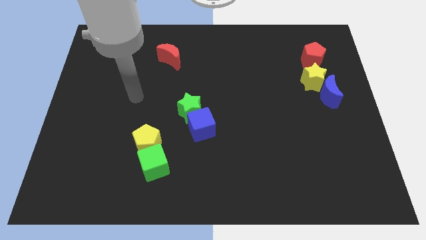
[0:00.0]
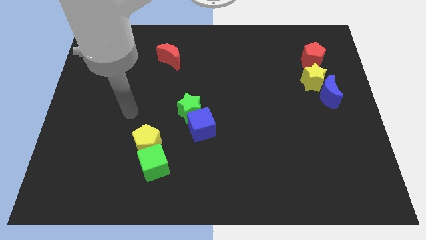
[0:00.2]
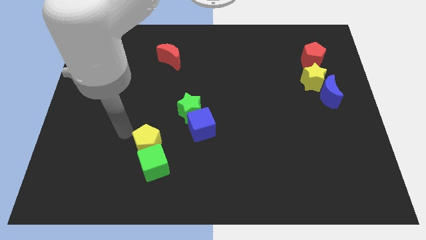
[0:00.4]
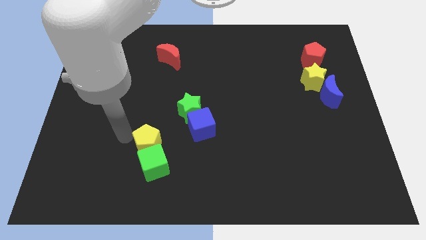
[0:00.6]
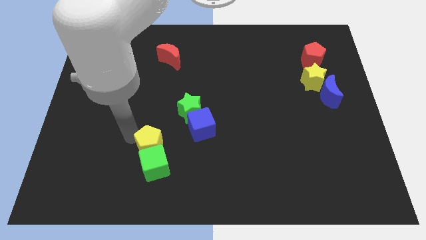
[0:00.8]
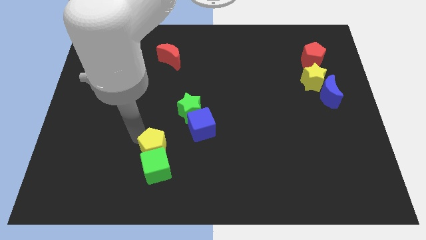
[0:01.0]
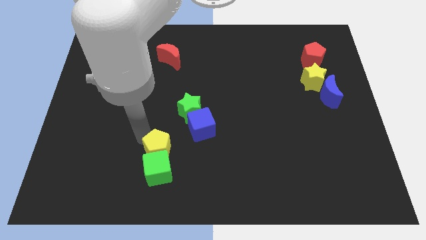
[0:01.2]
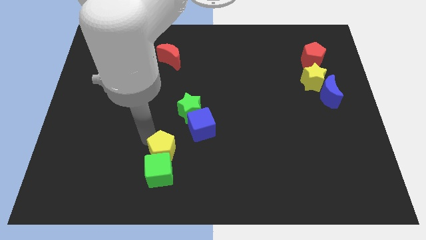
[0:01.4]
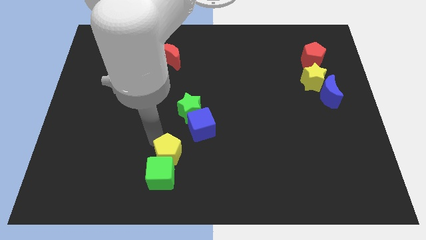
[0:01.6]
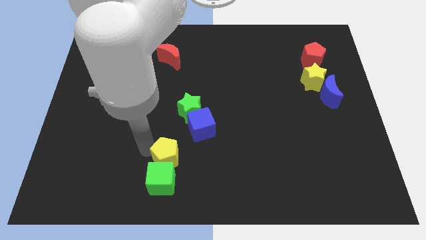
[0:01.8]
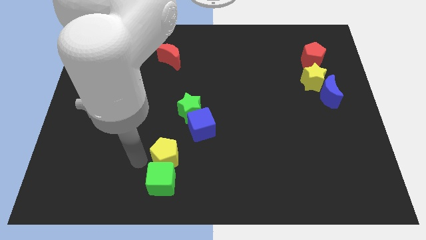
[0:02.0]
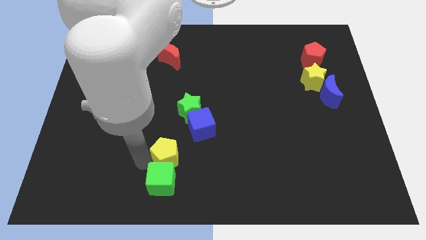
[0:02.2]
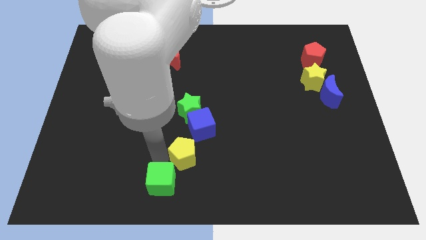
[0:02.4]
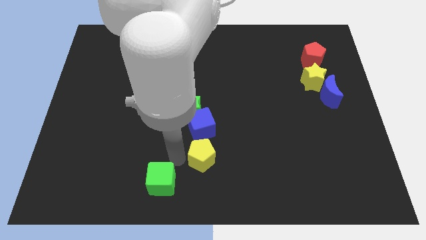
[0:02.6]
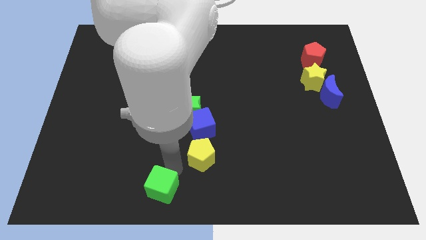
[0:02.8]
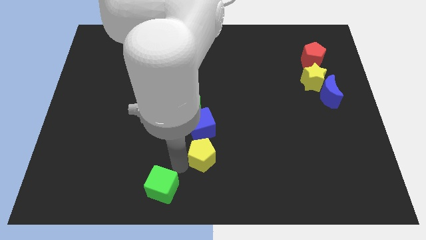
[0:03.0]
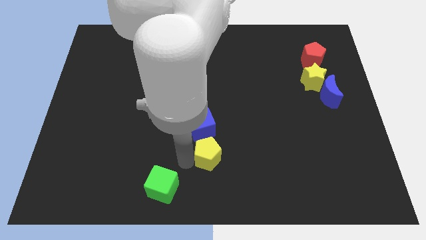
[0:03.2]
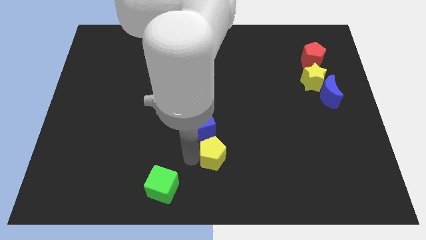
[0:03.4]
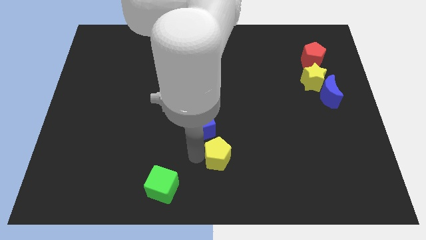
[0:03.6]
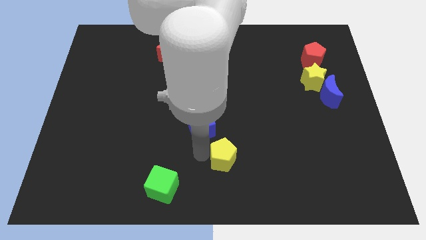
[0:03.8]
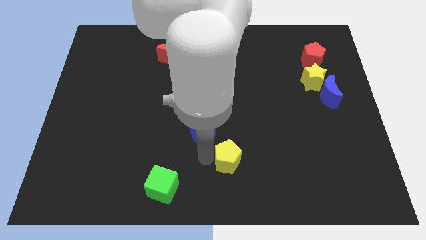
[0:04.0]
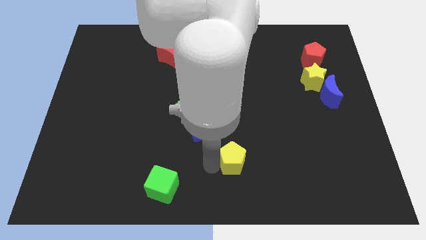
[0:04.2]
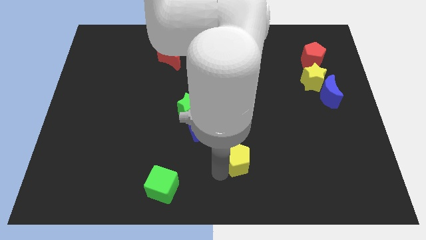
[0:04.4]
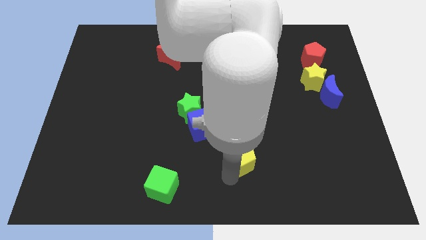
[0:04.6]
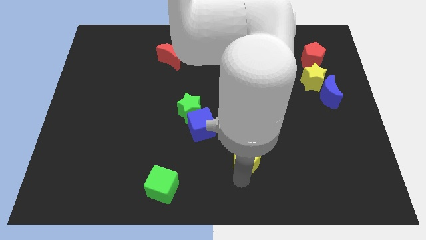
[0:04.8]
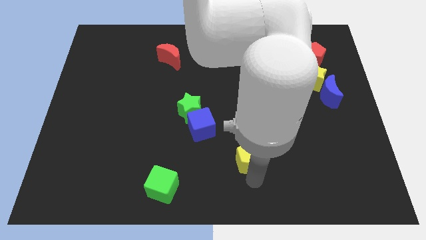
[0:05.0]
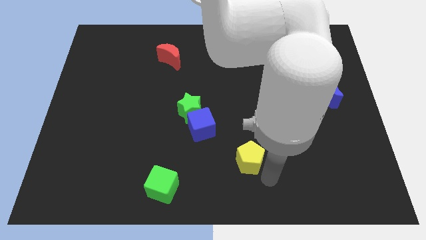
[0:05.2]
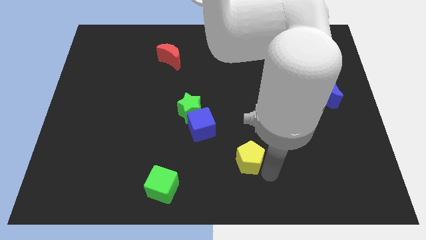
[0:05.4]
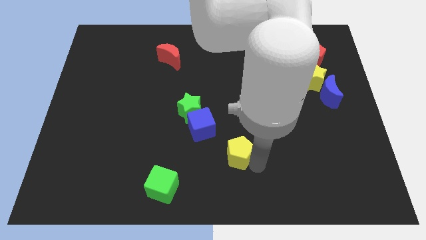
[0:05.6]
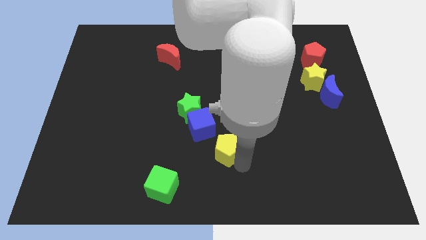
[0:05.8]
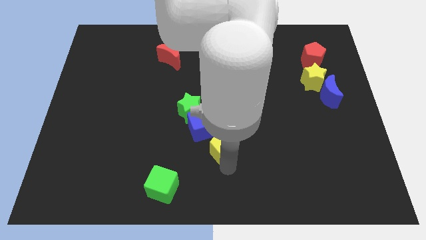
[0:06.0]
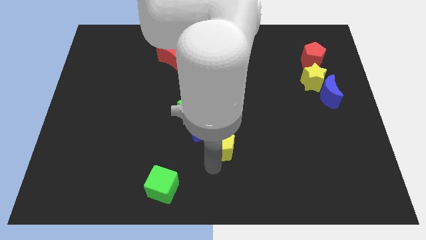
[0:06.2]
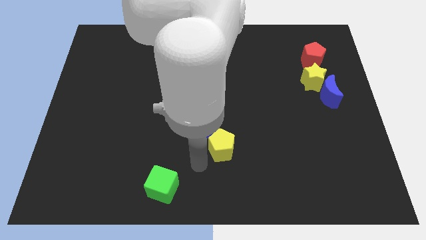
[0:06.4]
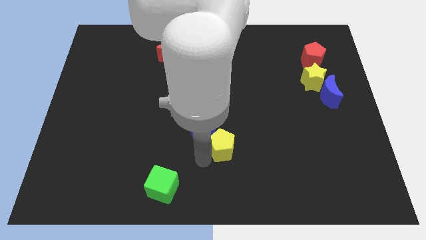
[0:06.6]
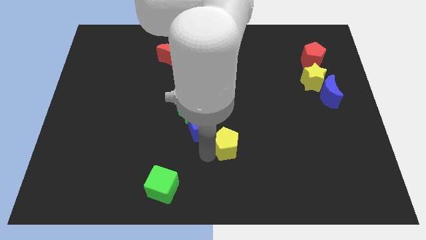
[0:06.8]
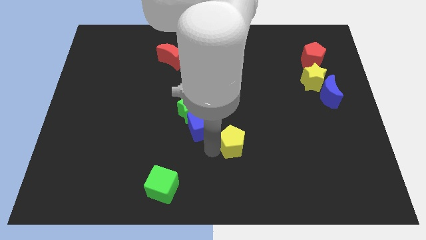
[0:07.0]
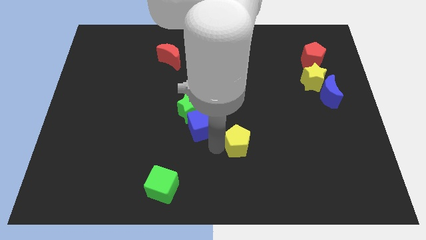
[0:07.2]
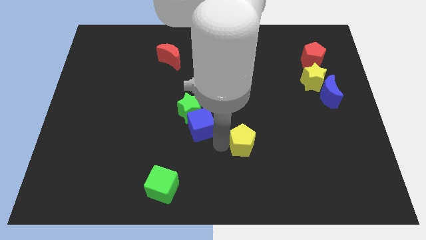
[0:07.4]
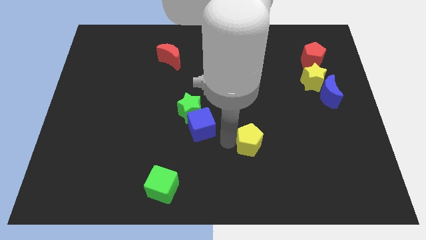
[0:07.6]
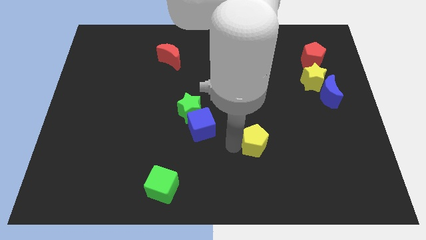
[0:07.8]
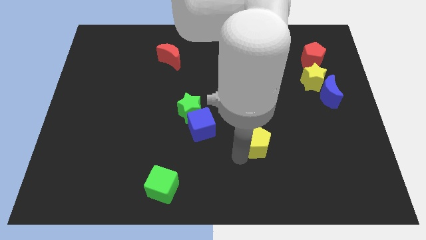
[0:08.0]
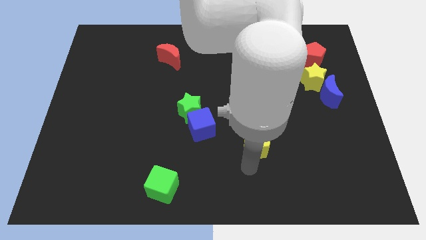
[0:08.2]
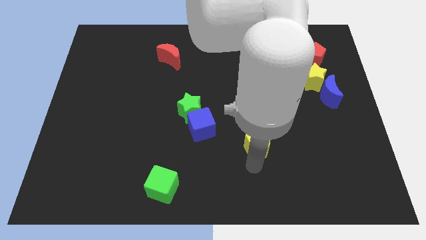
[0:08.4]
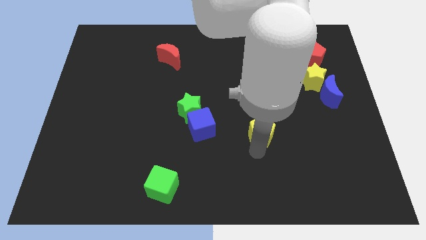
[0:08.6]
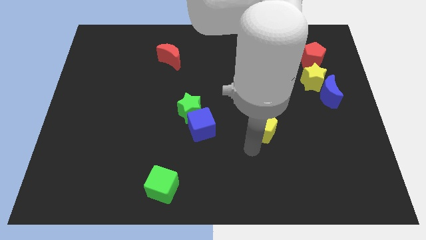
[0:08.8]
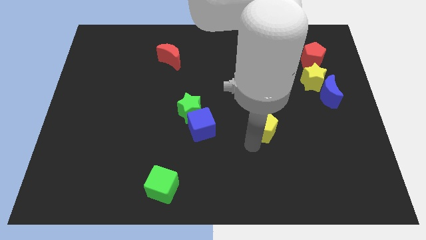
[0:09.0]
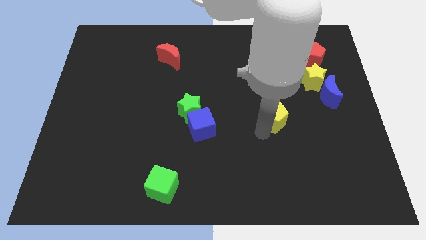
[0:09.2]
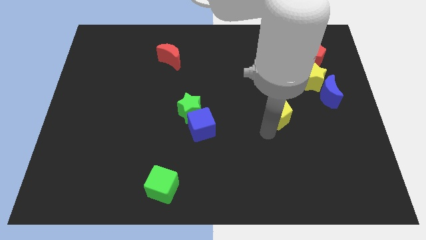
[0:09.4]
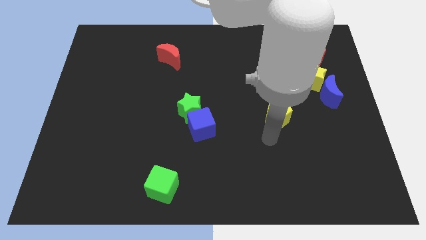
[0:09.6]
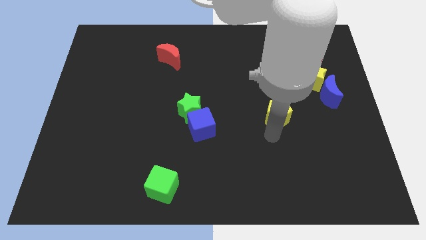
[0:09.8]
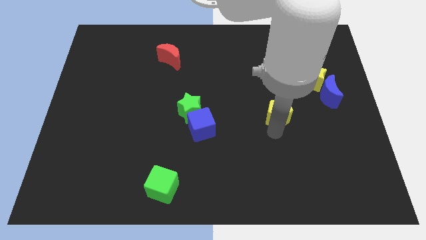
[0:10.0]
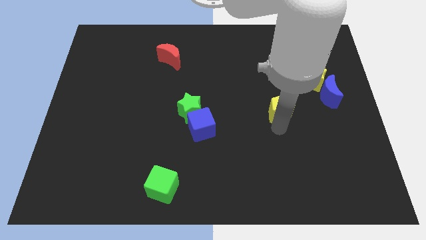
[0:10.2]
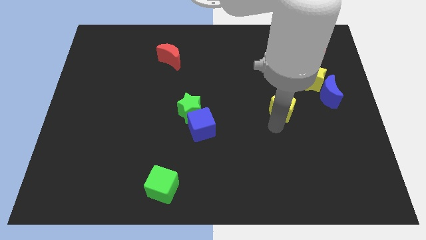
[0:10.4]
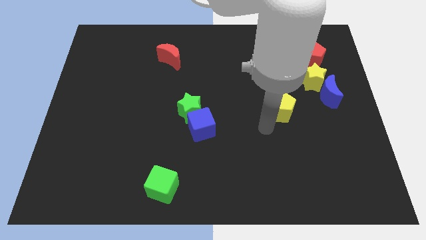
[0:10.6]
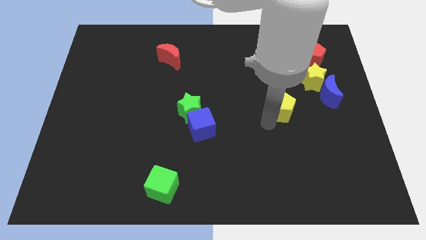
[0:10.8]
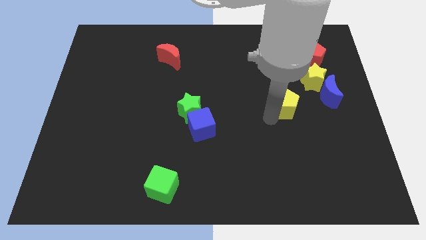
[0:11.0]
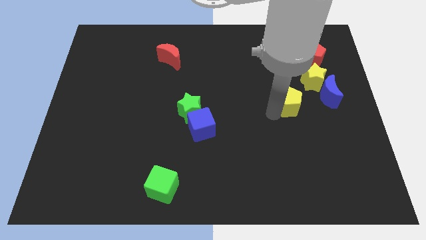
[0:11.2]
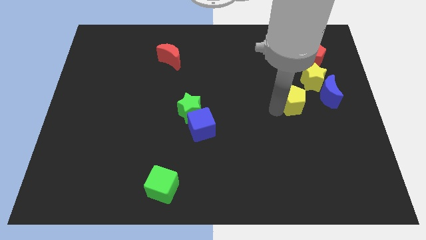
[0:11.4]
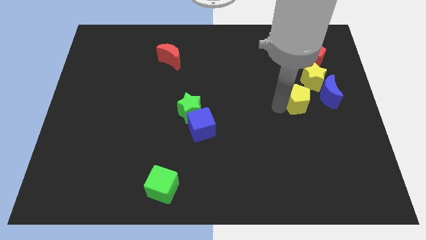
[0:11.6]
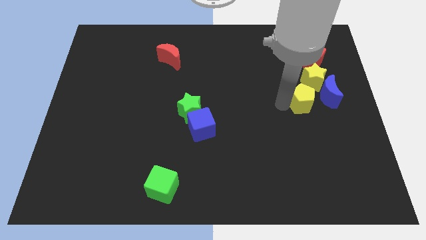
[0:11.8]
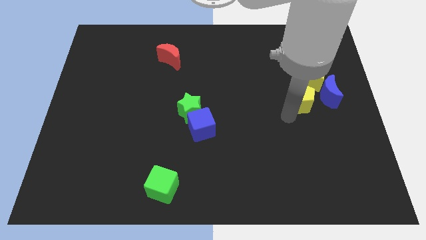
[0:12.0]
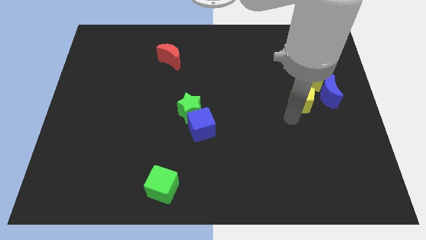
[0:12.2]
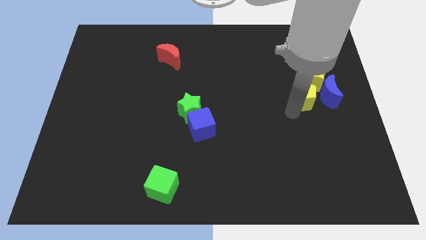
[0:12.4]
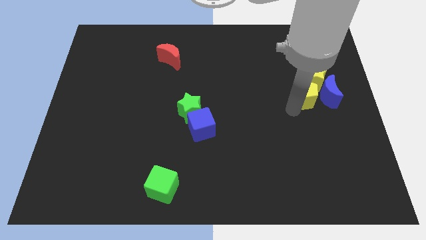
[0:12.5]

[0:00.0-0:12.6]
put the yellow pentagon towards the yellow star

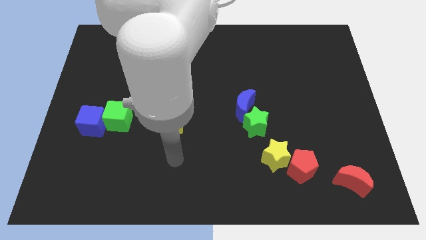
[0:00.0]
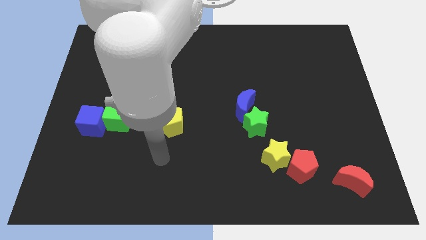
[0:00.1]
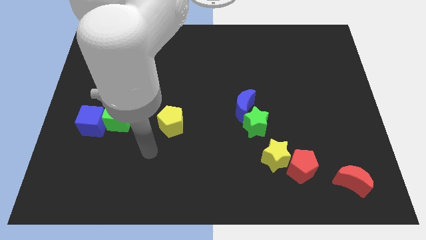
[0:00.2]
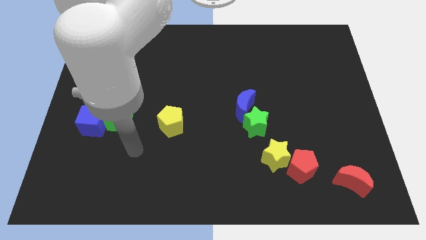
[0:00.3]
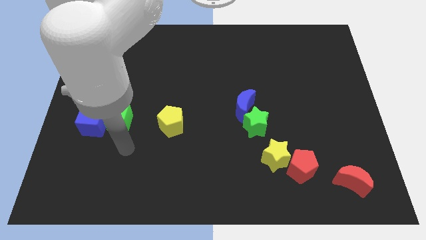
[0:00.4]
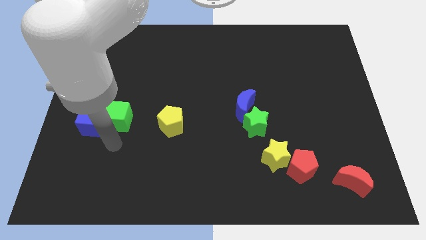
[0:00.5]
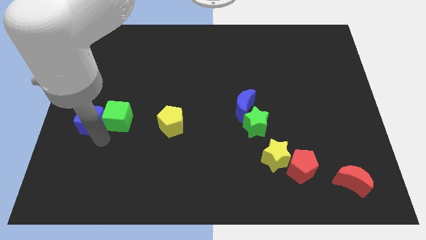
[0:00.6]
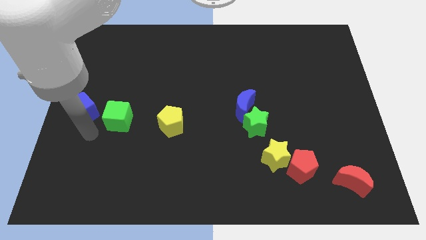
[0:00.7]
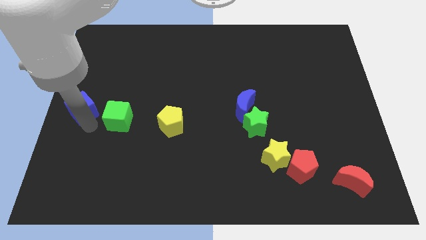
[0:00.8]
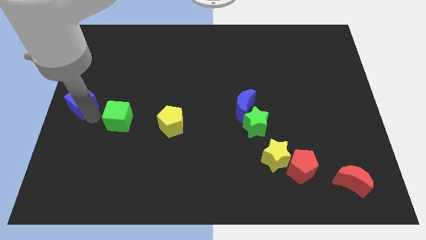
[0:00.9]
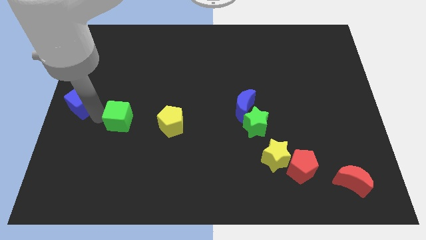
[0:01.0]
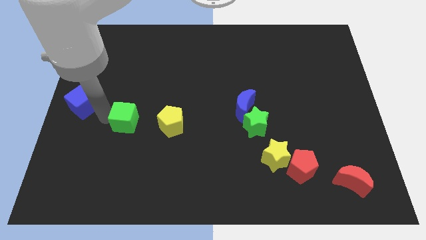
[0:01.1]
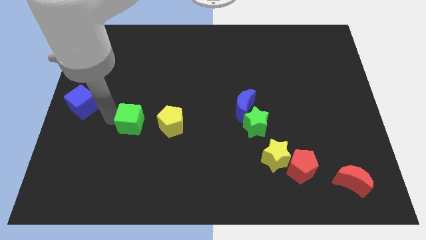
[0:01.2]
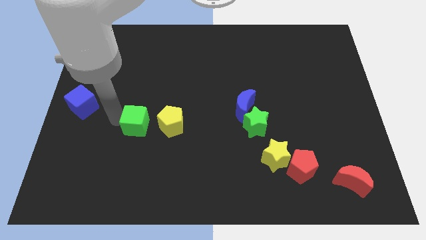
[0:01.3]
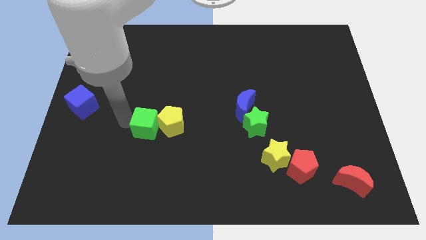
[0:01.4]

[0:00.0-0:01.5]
slide the green cube next to the yellow pentagon

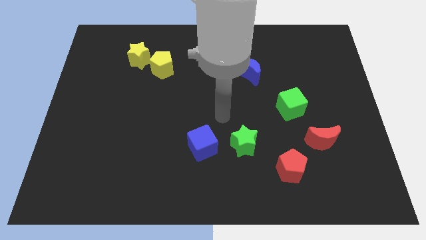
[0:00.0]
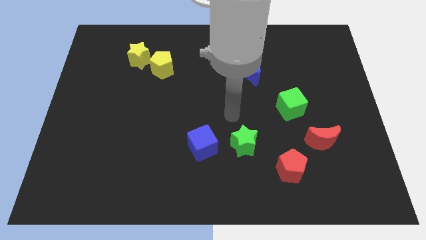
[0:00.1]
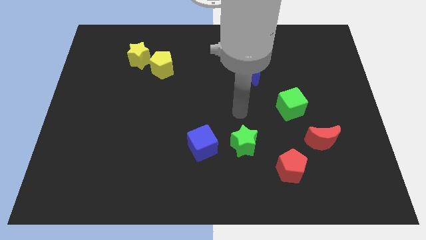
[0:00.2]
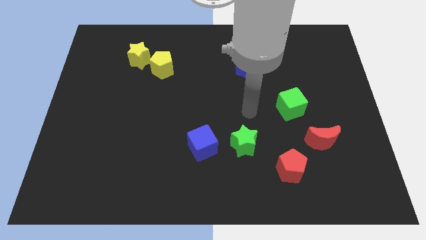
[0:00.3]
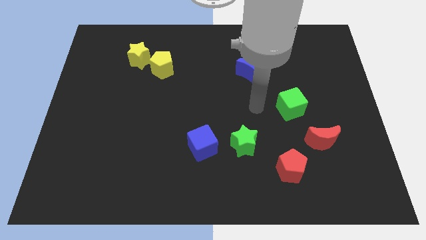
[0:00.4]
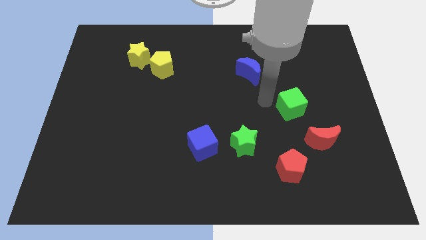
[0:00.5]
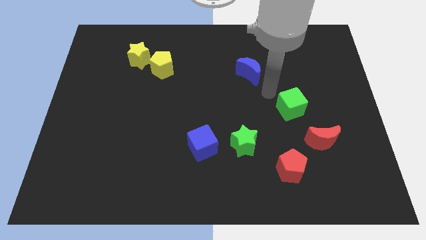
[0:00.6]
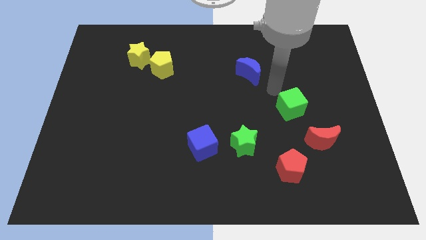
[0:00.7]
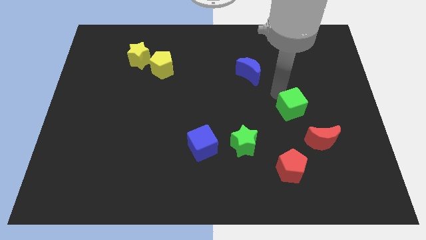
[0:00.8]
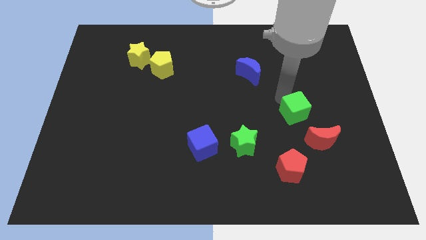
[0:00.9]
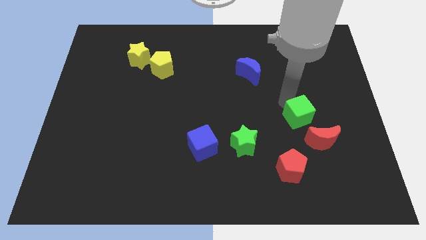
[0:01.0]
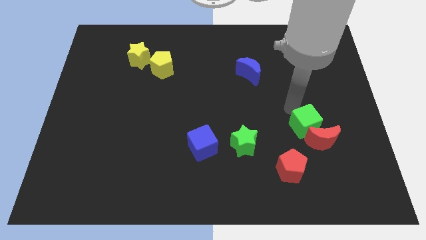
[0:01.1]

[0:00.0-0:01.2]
slide the green cube close to the red moon
